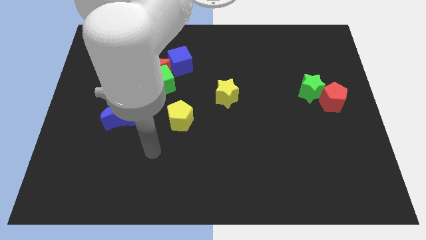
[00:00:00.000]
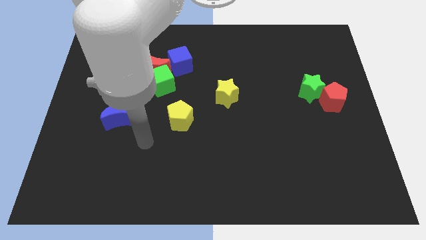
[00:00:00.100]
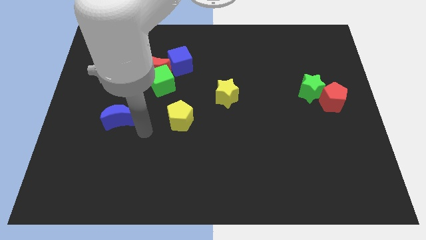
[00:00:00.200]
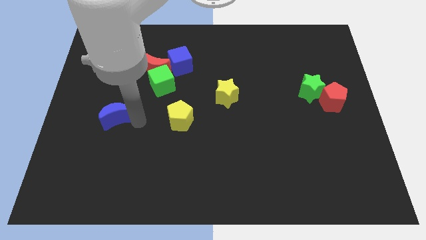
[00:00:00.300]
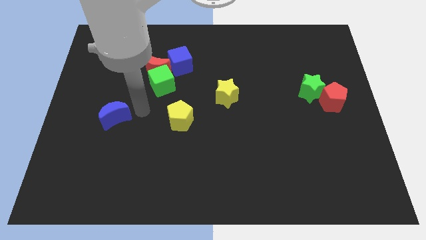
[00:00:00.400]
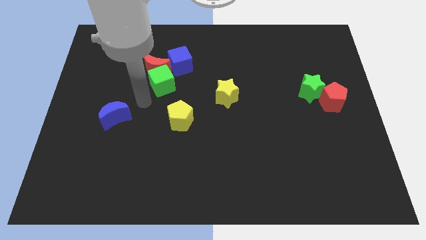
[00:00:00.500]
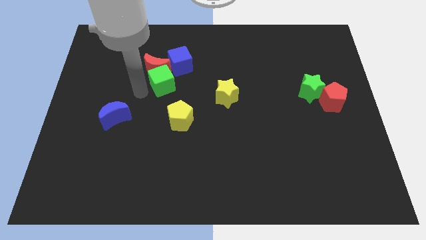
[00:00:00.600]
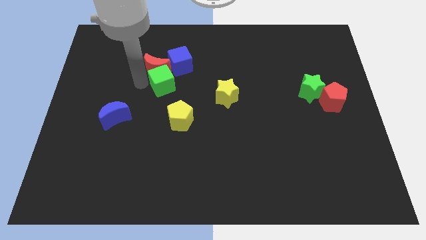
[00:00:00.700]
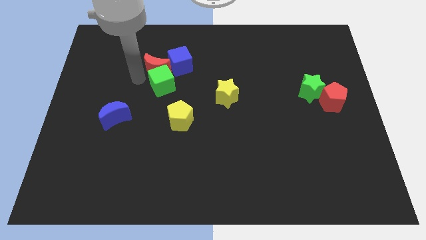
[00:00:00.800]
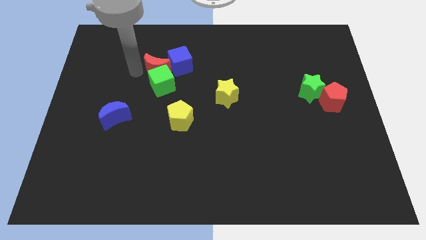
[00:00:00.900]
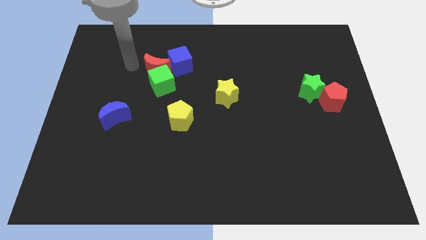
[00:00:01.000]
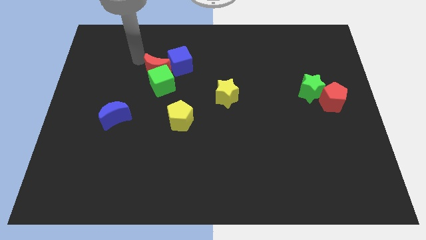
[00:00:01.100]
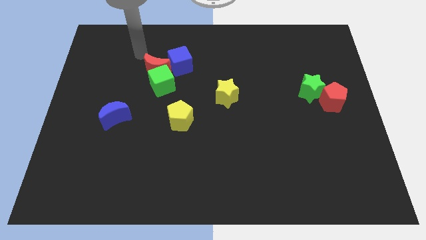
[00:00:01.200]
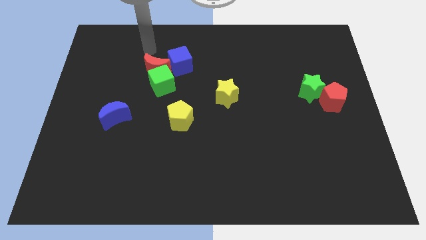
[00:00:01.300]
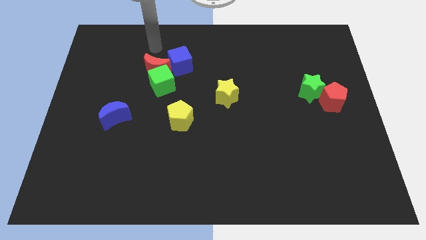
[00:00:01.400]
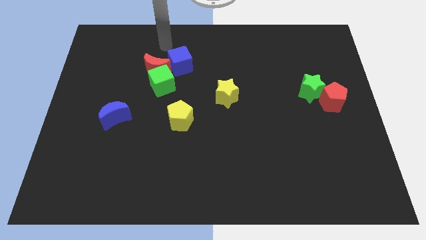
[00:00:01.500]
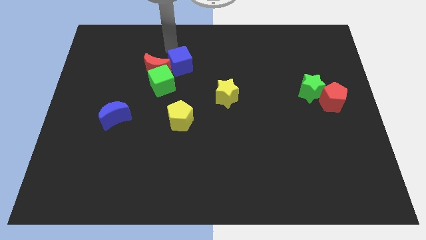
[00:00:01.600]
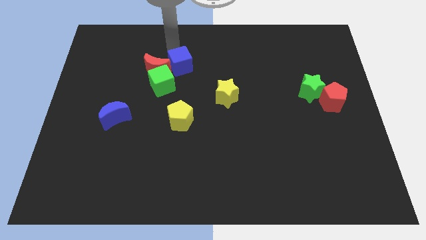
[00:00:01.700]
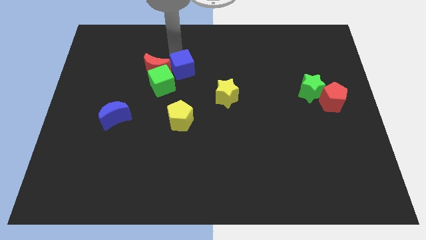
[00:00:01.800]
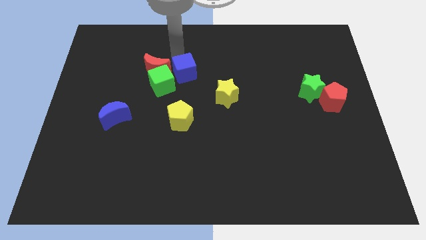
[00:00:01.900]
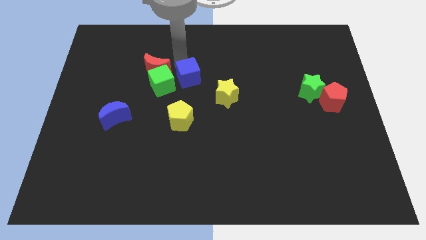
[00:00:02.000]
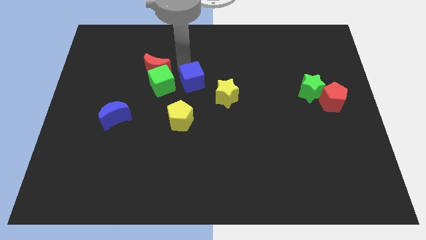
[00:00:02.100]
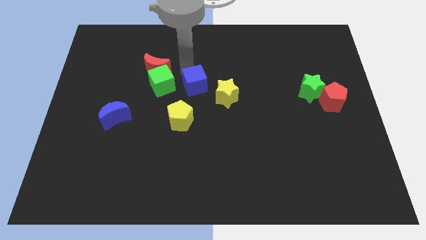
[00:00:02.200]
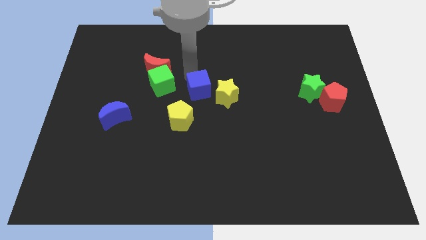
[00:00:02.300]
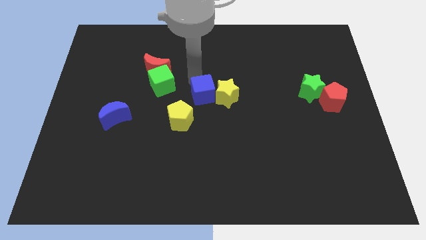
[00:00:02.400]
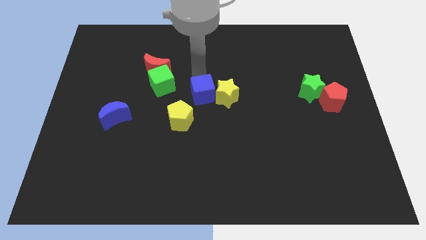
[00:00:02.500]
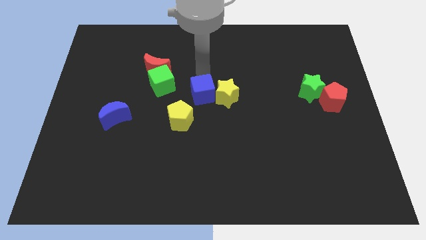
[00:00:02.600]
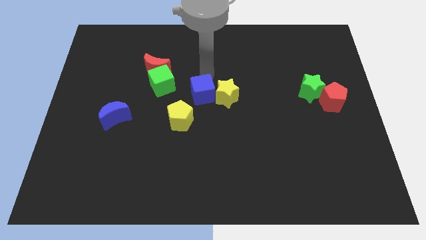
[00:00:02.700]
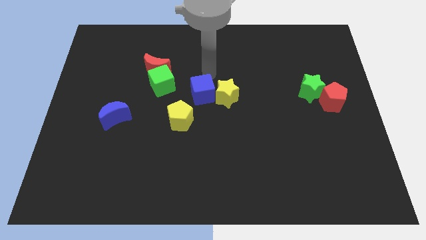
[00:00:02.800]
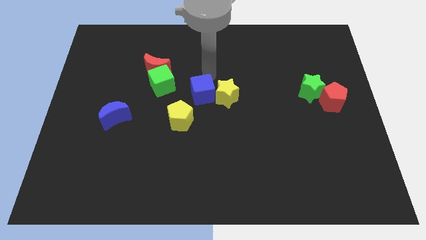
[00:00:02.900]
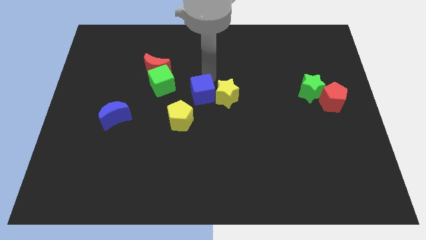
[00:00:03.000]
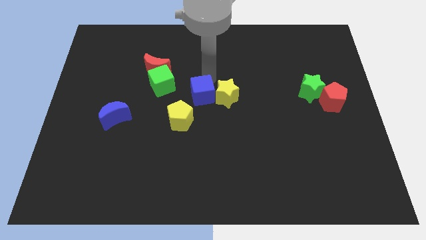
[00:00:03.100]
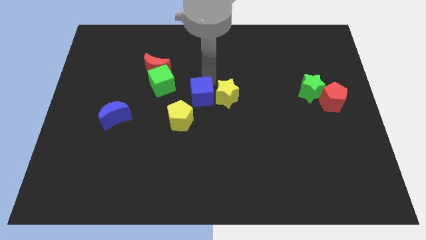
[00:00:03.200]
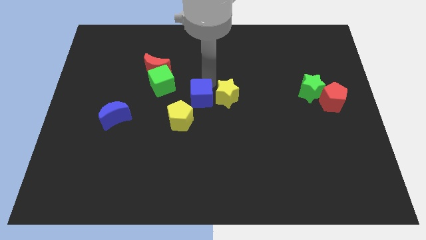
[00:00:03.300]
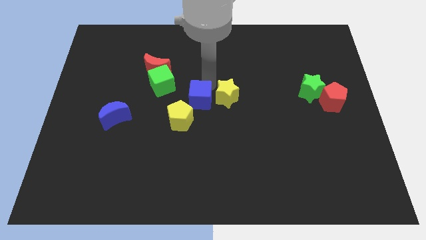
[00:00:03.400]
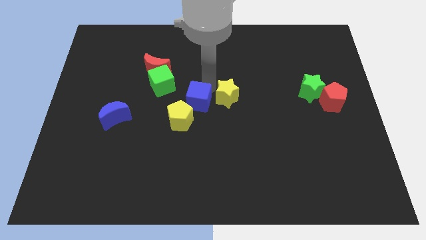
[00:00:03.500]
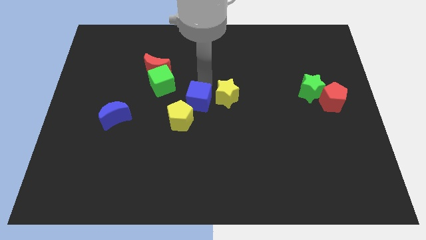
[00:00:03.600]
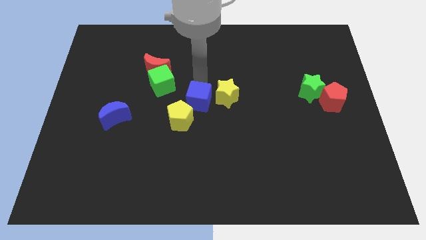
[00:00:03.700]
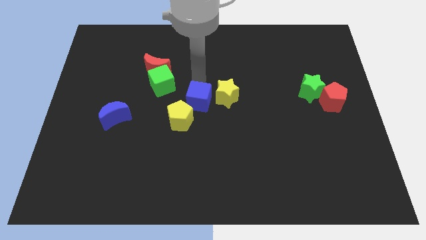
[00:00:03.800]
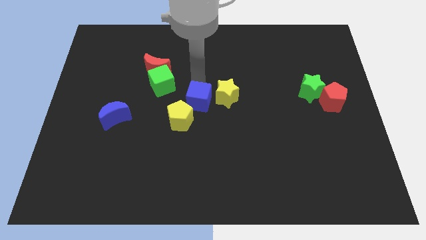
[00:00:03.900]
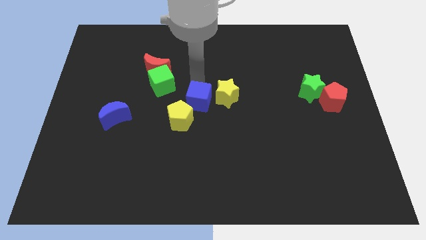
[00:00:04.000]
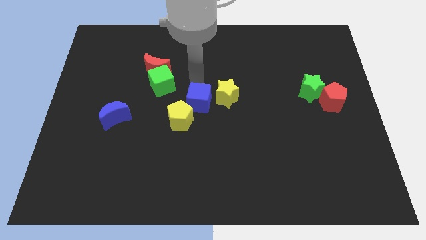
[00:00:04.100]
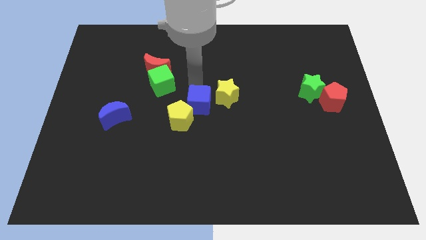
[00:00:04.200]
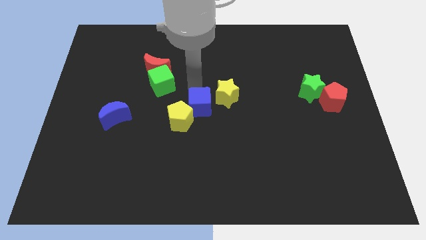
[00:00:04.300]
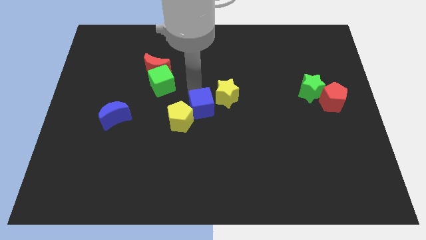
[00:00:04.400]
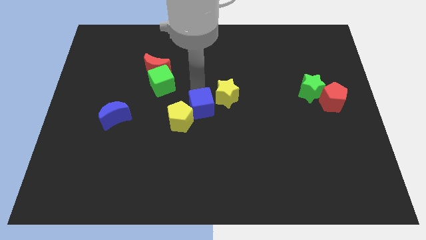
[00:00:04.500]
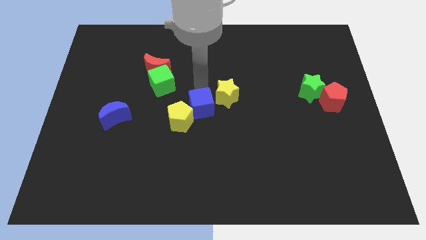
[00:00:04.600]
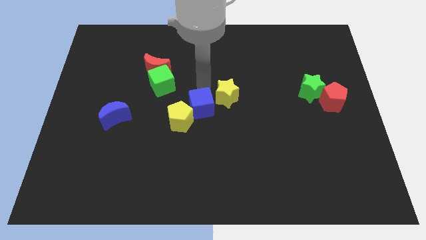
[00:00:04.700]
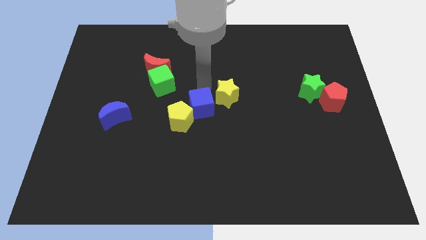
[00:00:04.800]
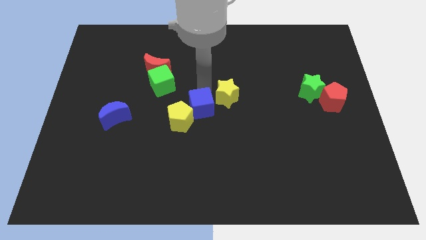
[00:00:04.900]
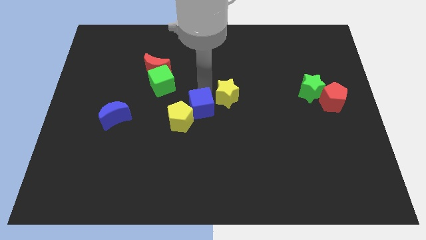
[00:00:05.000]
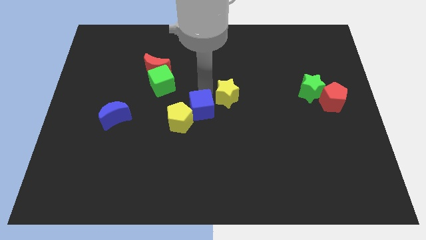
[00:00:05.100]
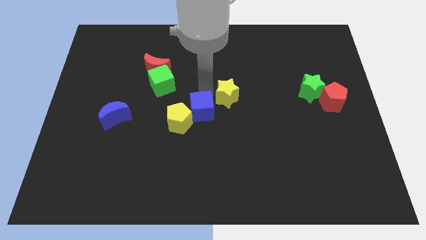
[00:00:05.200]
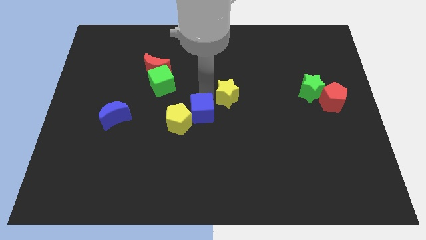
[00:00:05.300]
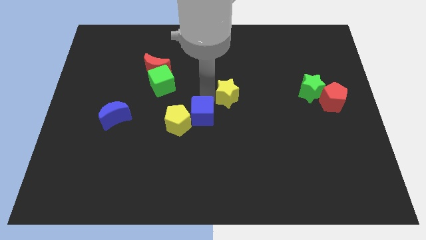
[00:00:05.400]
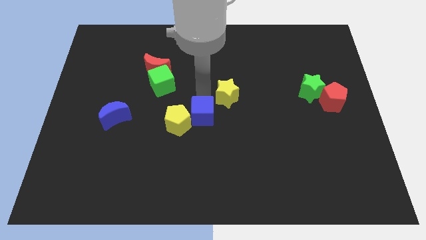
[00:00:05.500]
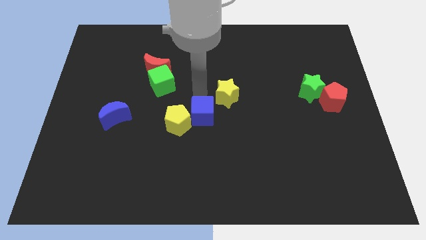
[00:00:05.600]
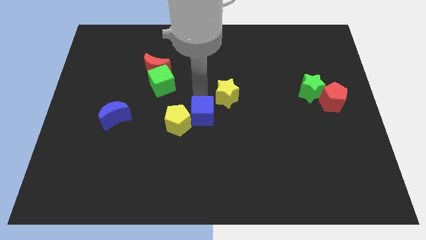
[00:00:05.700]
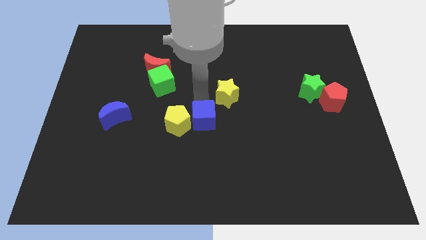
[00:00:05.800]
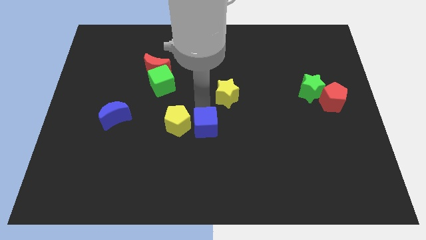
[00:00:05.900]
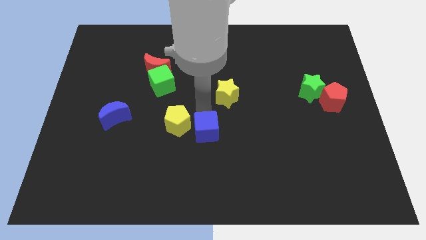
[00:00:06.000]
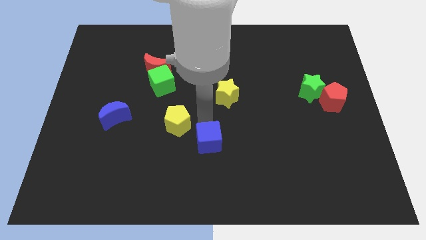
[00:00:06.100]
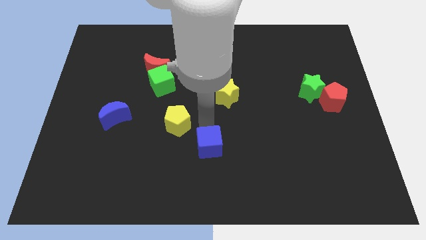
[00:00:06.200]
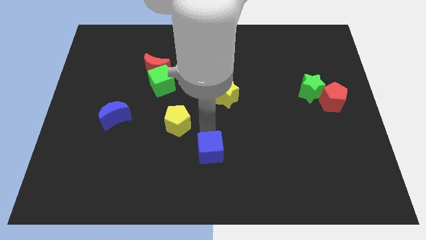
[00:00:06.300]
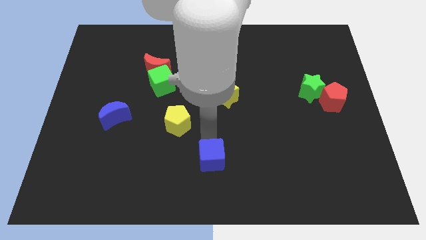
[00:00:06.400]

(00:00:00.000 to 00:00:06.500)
move the blue cube to the bottom
